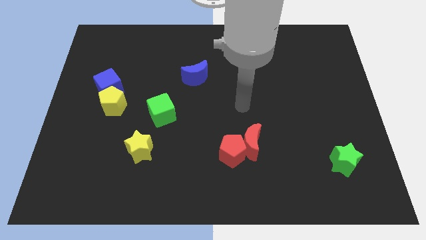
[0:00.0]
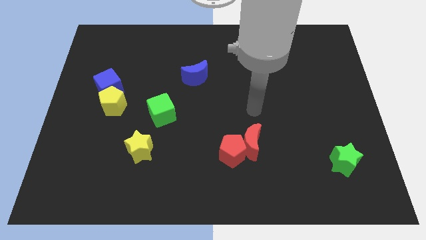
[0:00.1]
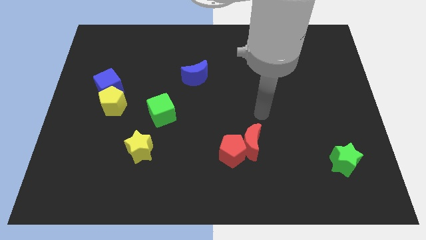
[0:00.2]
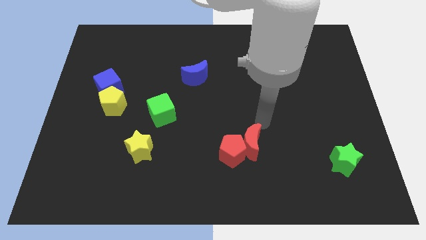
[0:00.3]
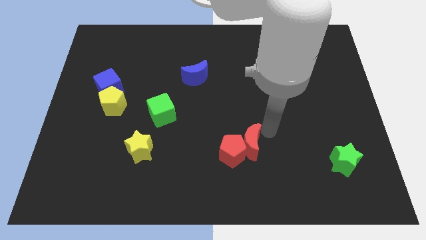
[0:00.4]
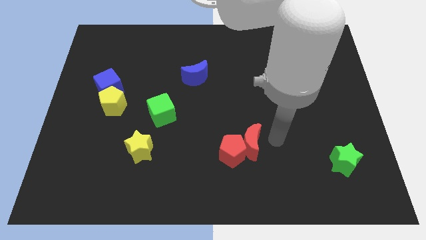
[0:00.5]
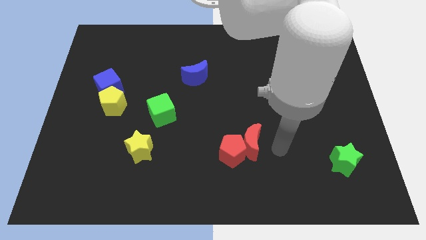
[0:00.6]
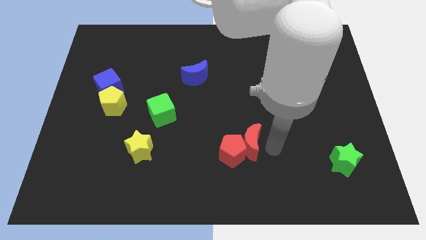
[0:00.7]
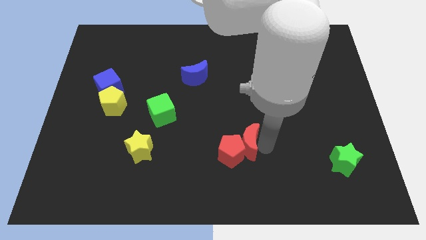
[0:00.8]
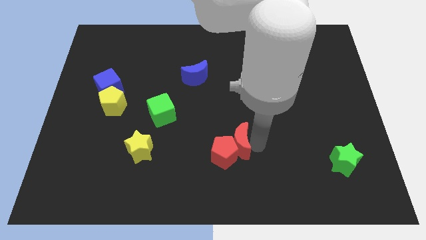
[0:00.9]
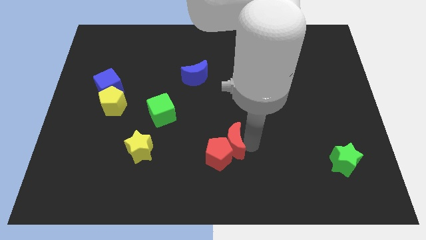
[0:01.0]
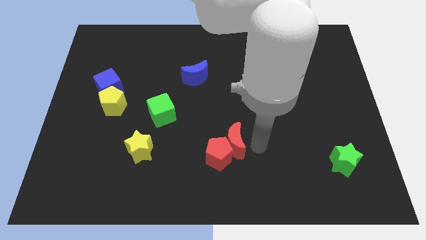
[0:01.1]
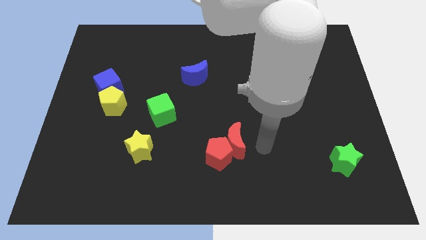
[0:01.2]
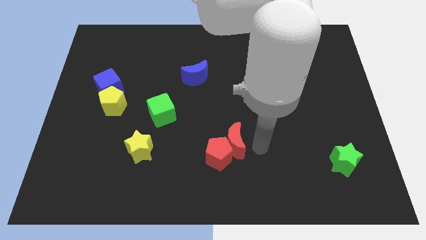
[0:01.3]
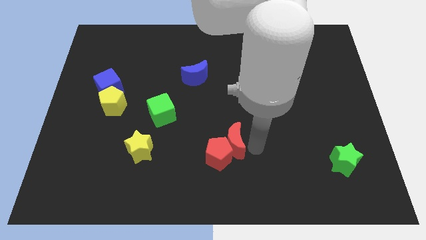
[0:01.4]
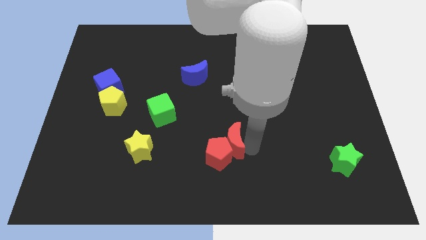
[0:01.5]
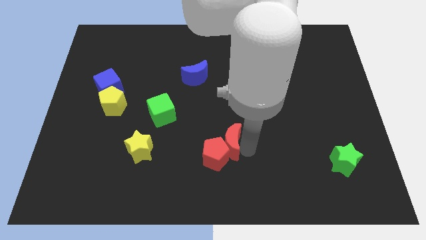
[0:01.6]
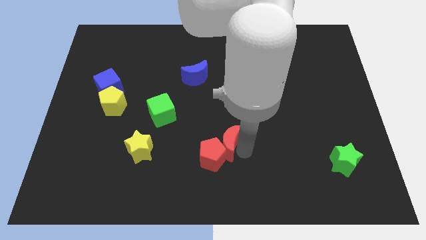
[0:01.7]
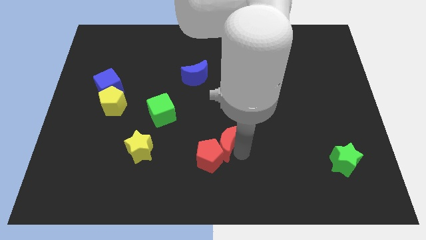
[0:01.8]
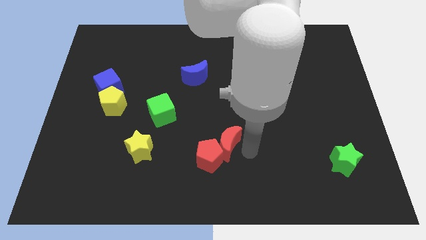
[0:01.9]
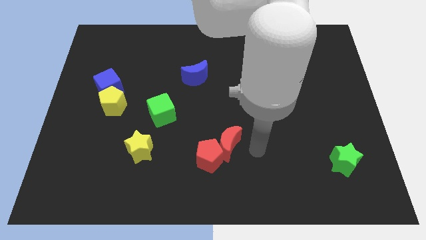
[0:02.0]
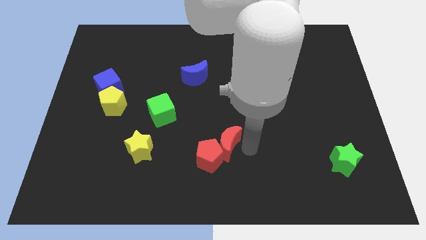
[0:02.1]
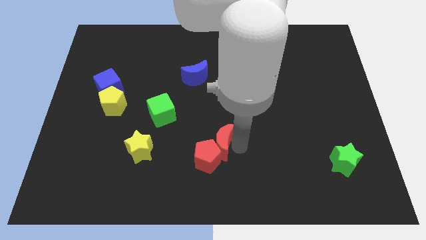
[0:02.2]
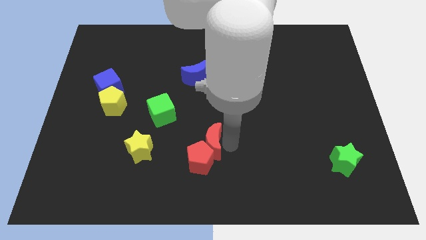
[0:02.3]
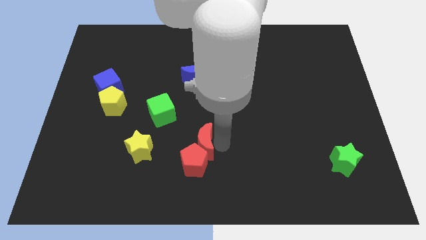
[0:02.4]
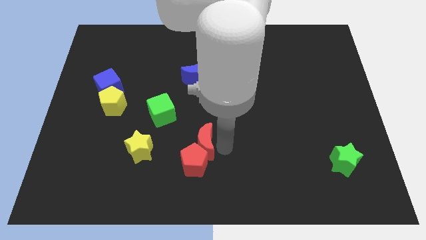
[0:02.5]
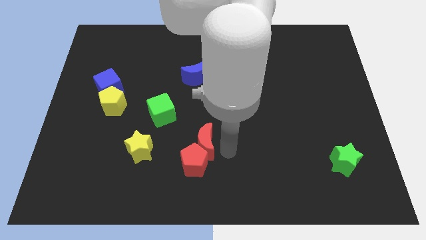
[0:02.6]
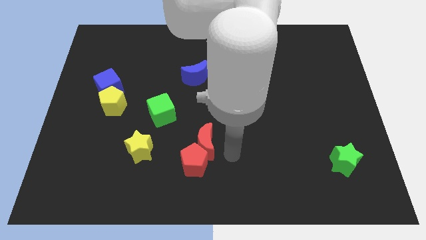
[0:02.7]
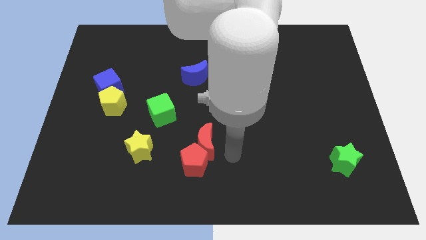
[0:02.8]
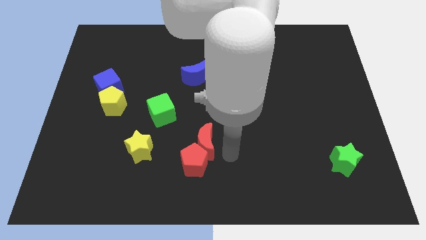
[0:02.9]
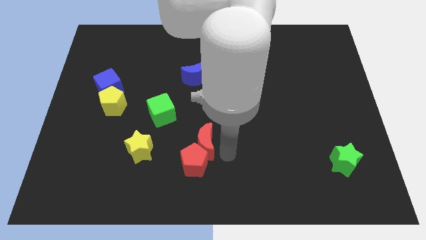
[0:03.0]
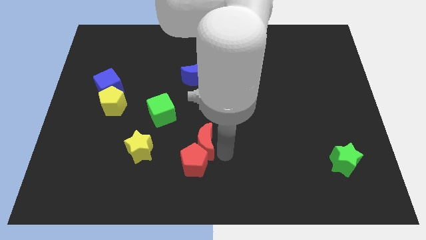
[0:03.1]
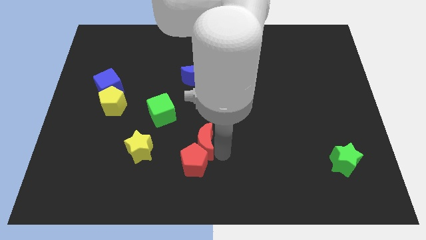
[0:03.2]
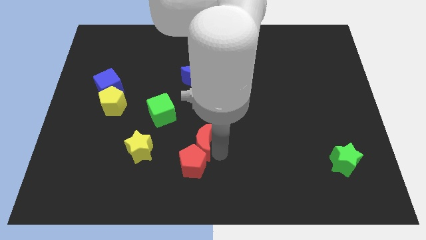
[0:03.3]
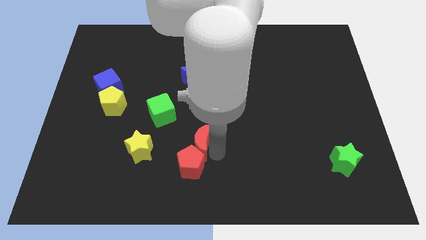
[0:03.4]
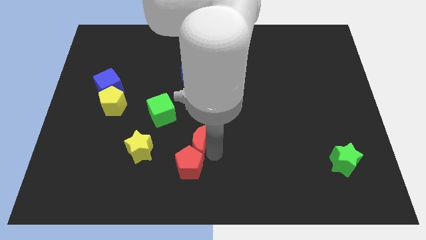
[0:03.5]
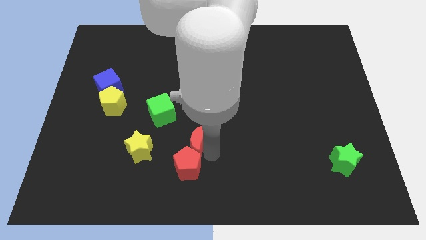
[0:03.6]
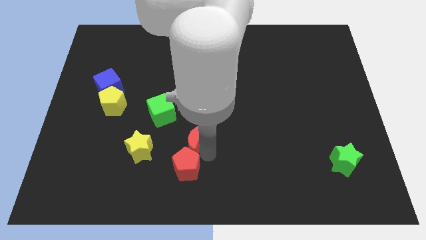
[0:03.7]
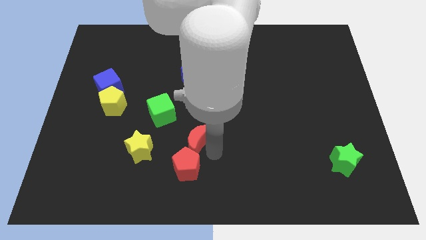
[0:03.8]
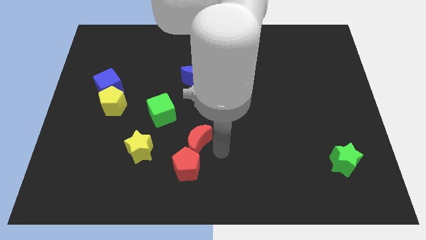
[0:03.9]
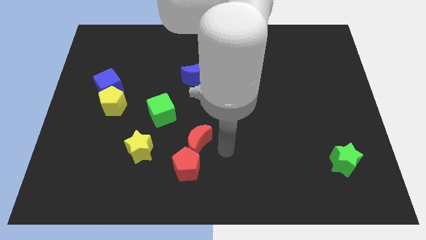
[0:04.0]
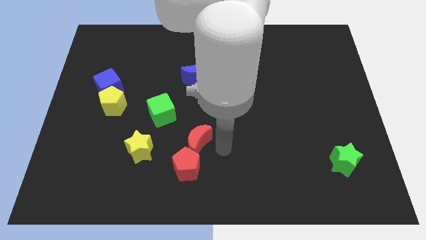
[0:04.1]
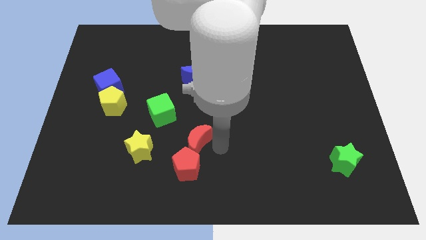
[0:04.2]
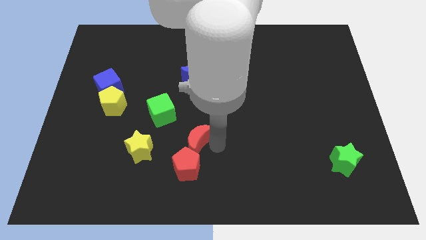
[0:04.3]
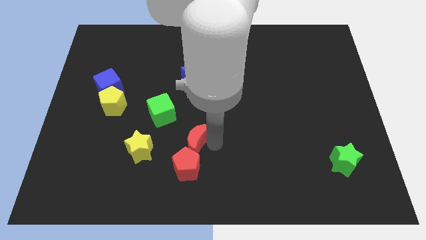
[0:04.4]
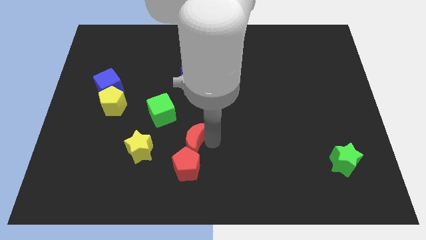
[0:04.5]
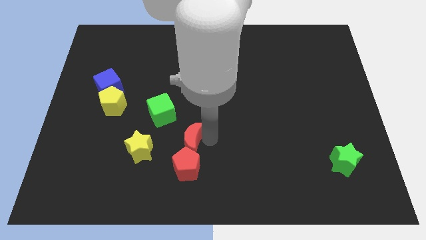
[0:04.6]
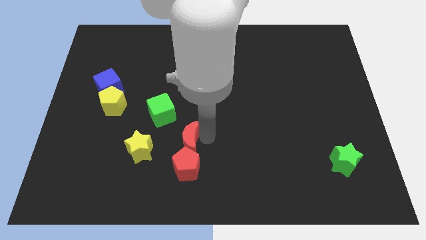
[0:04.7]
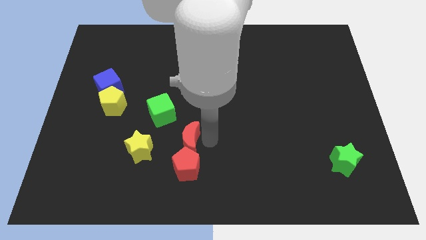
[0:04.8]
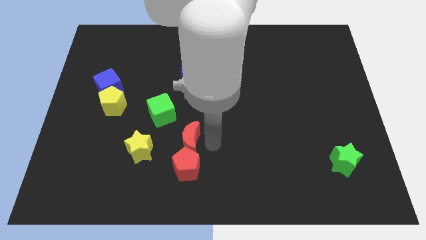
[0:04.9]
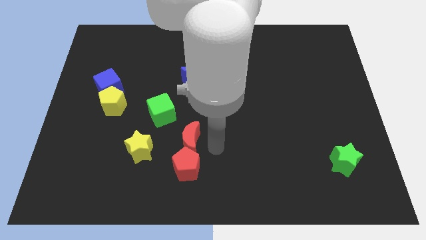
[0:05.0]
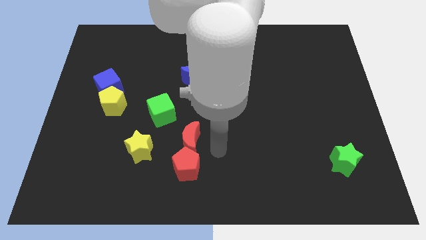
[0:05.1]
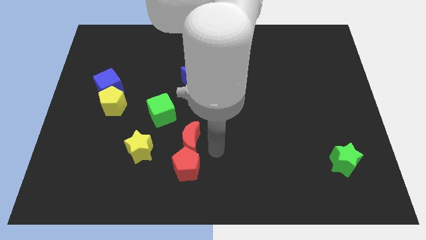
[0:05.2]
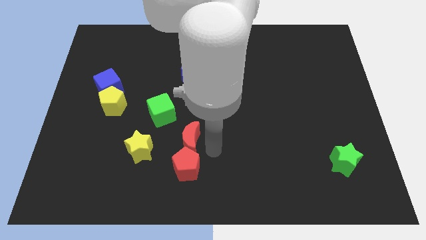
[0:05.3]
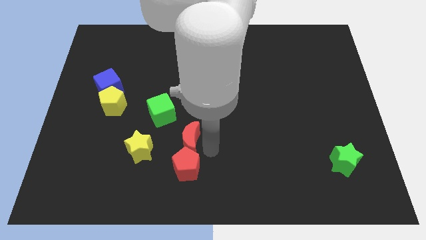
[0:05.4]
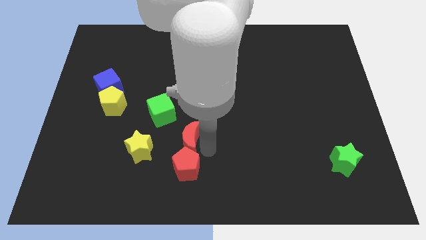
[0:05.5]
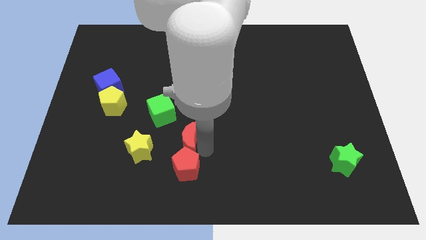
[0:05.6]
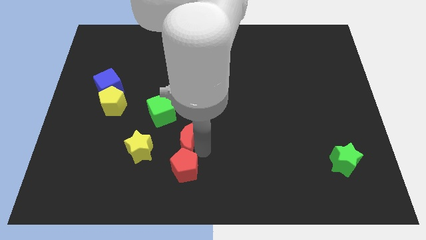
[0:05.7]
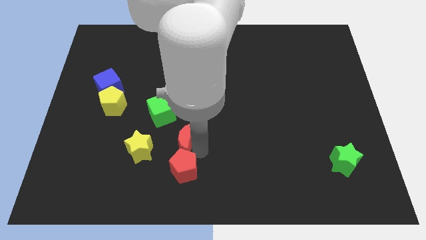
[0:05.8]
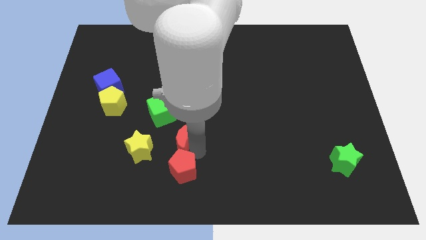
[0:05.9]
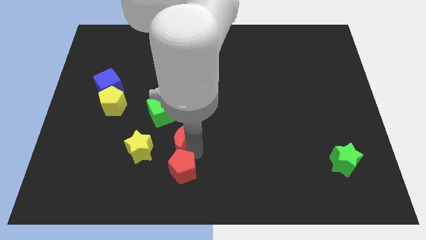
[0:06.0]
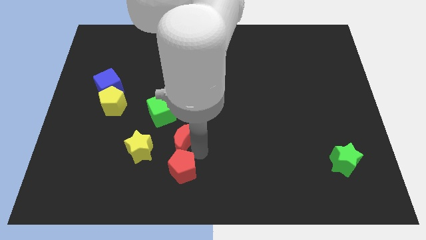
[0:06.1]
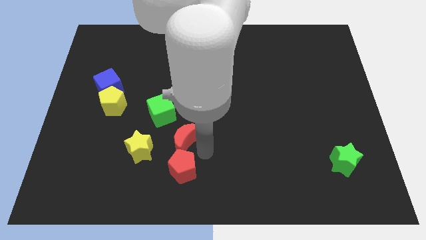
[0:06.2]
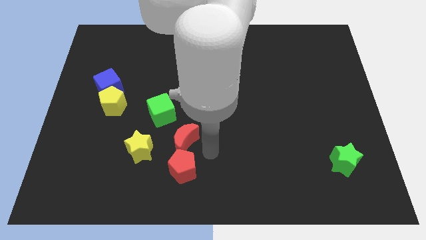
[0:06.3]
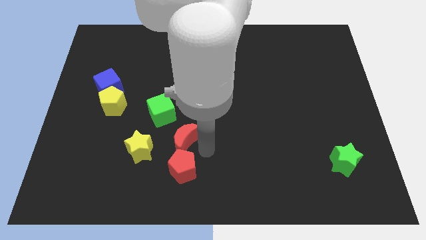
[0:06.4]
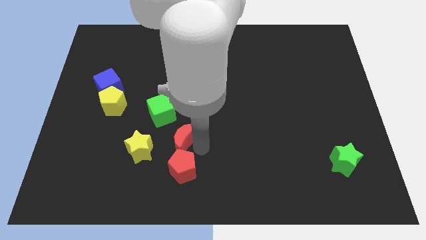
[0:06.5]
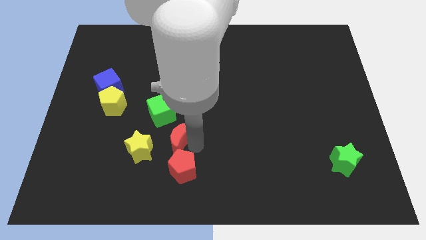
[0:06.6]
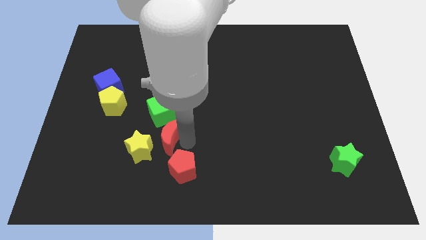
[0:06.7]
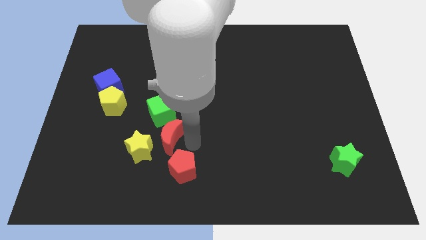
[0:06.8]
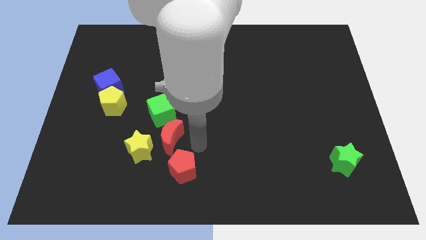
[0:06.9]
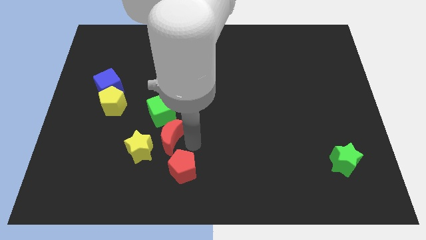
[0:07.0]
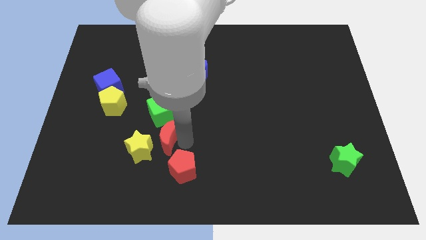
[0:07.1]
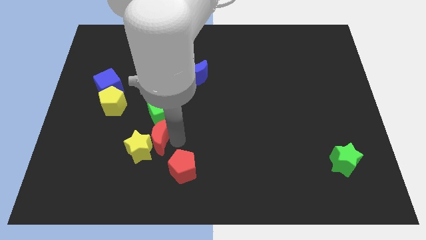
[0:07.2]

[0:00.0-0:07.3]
slide the red moon left

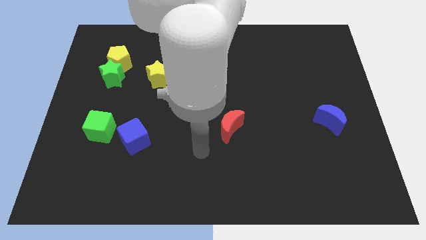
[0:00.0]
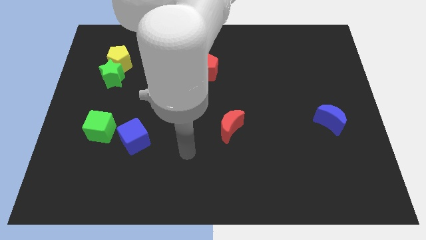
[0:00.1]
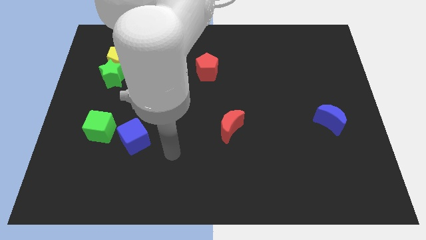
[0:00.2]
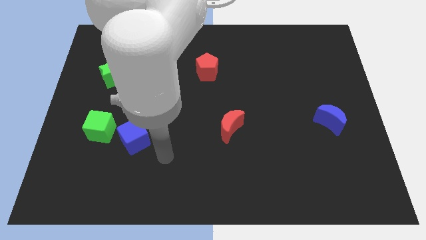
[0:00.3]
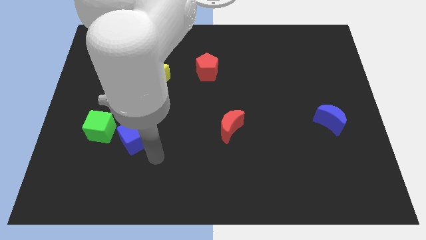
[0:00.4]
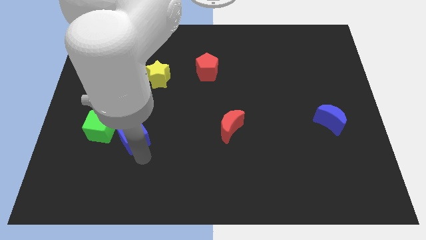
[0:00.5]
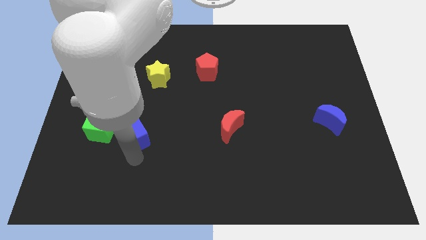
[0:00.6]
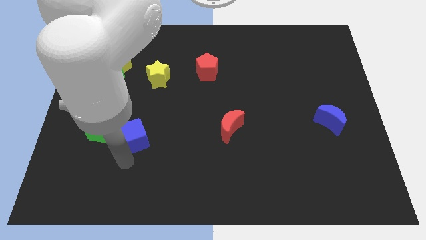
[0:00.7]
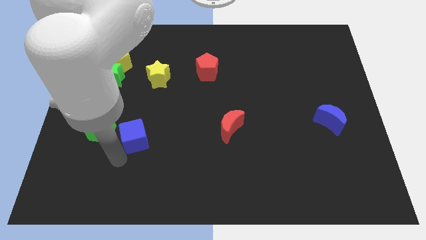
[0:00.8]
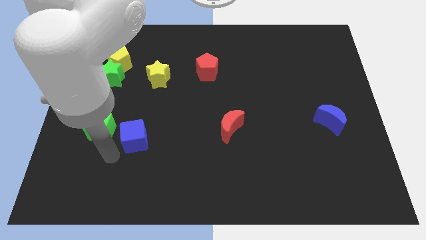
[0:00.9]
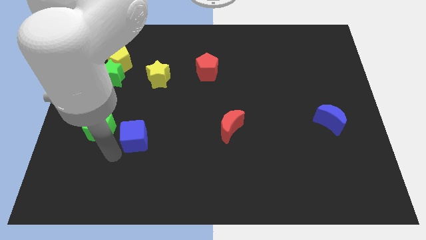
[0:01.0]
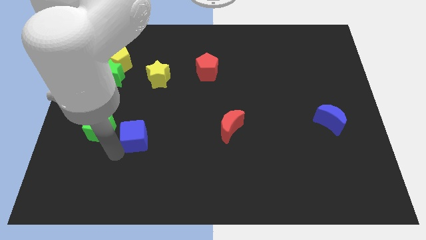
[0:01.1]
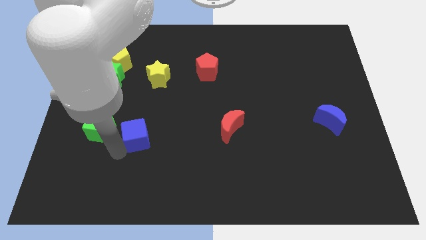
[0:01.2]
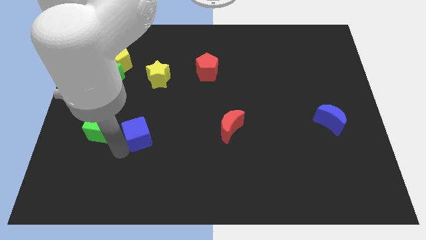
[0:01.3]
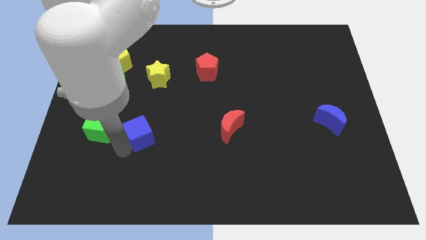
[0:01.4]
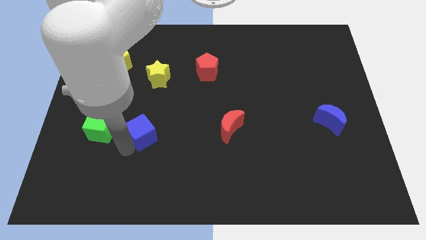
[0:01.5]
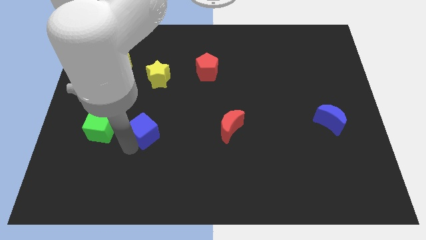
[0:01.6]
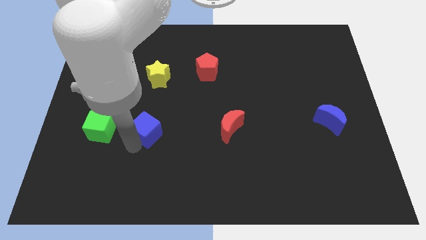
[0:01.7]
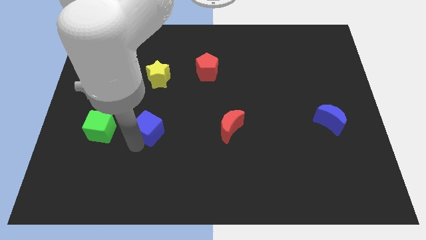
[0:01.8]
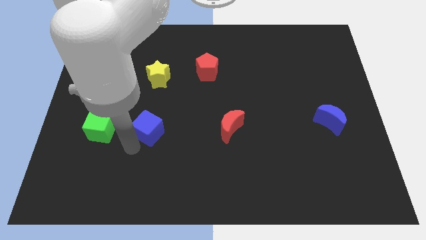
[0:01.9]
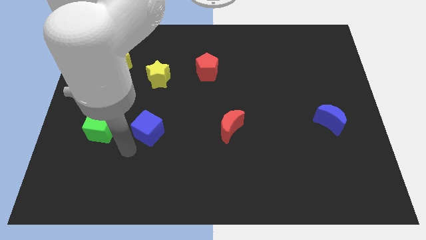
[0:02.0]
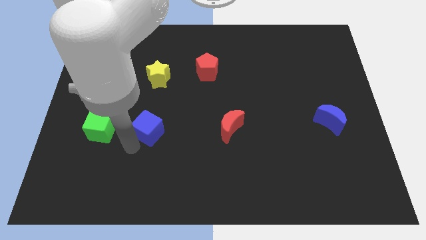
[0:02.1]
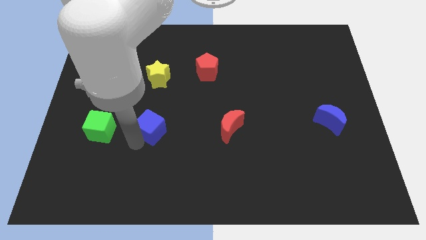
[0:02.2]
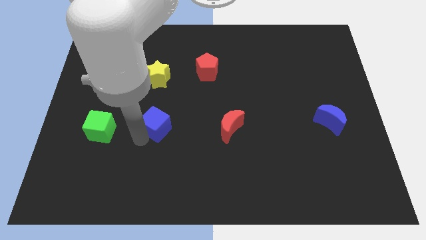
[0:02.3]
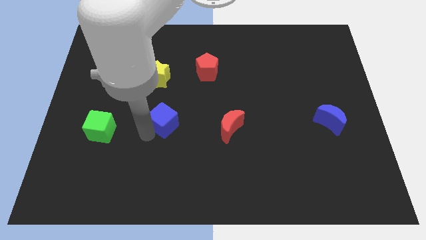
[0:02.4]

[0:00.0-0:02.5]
slide the blue cube slightly upwards and right diagonally
